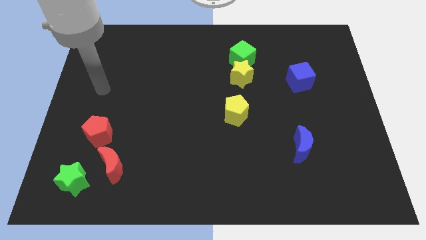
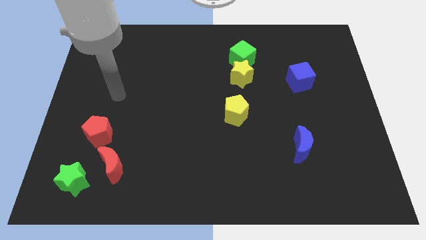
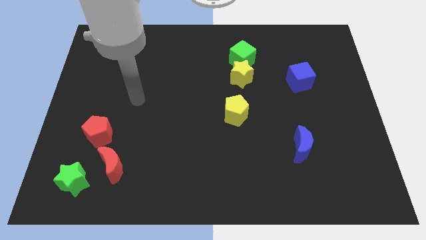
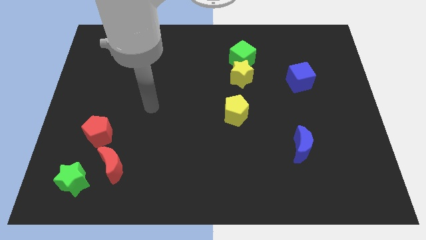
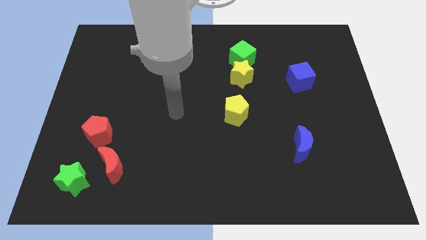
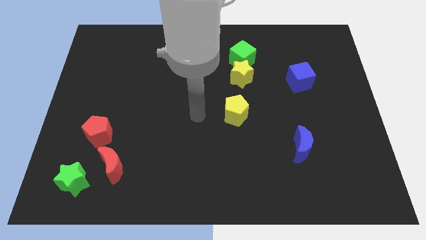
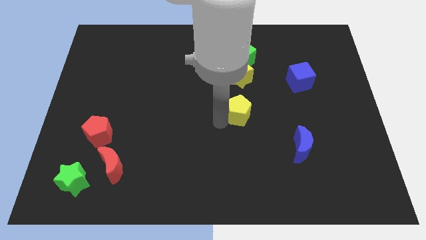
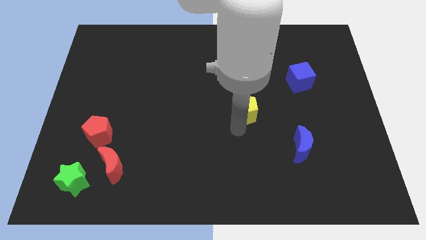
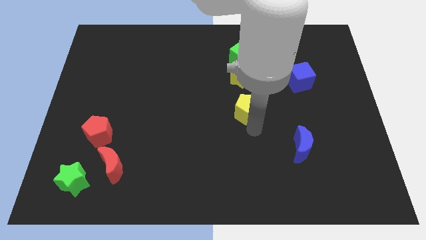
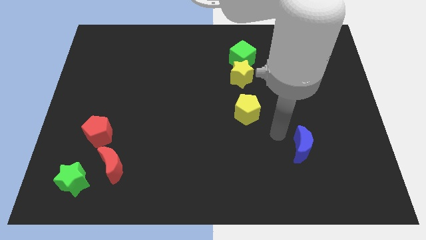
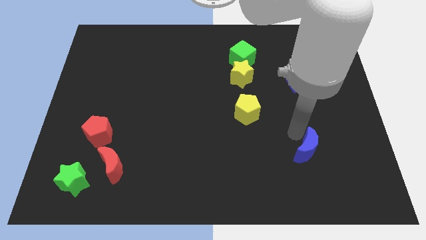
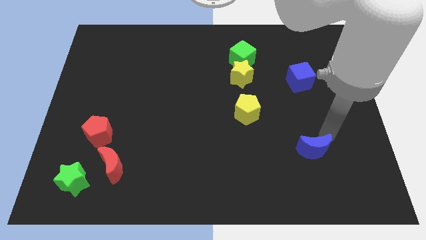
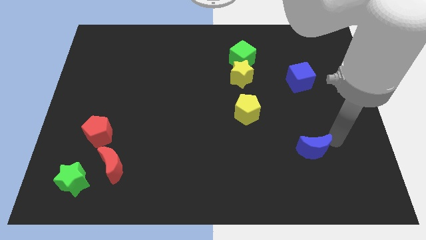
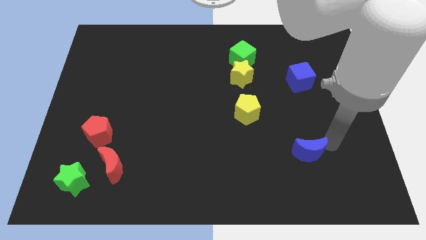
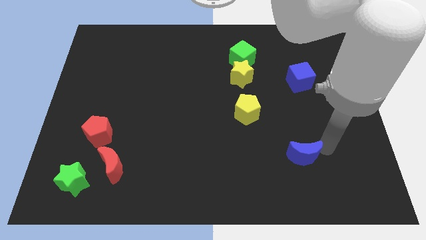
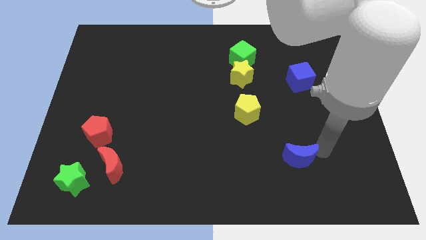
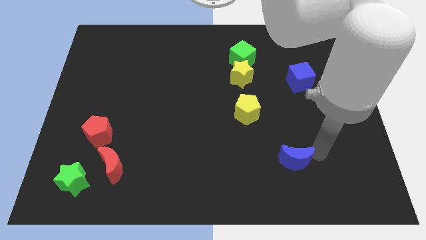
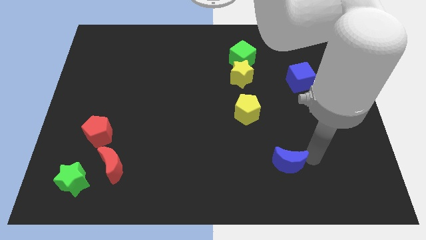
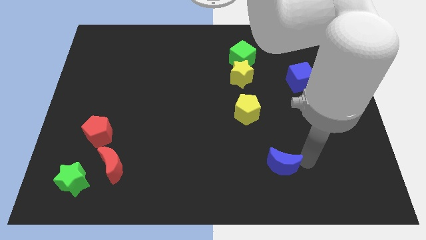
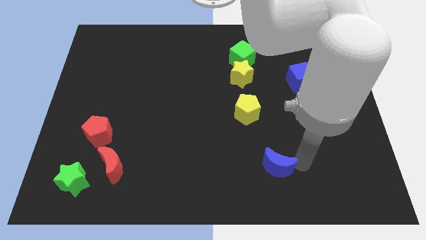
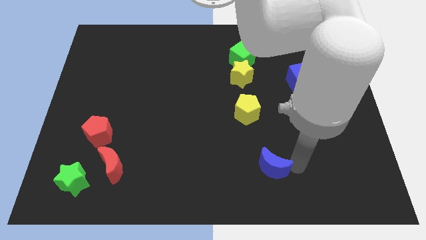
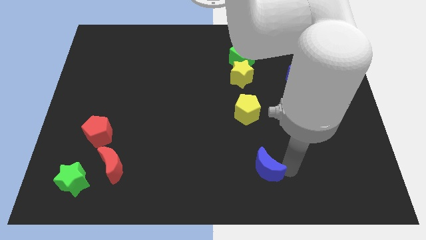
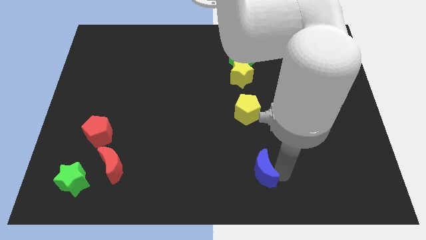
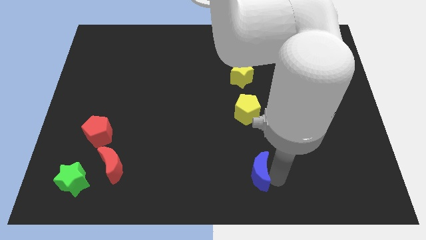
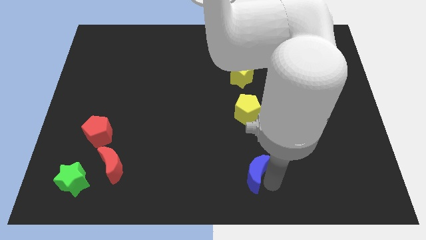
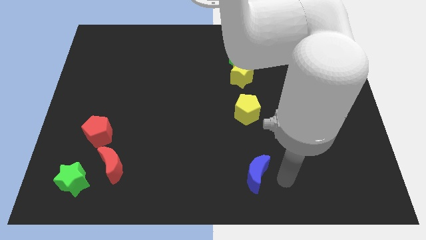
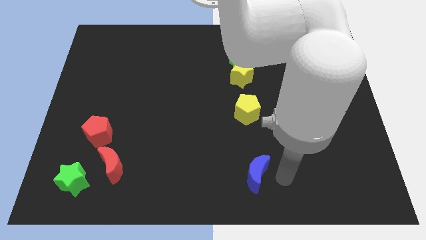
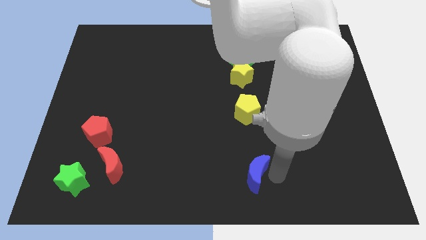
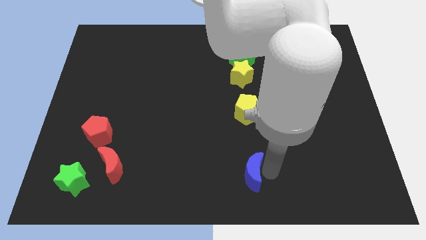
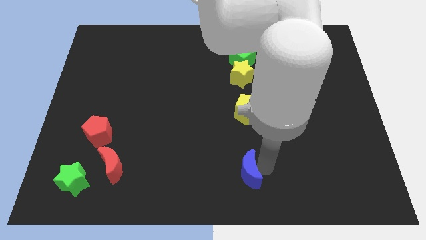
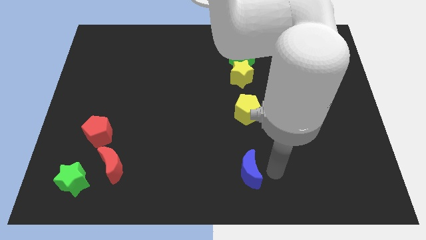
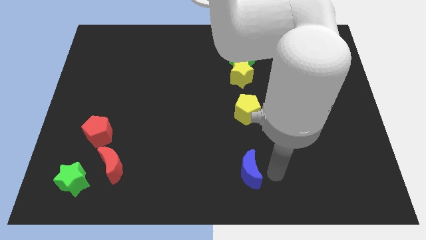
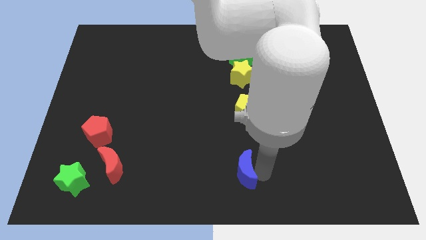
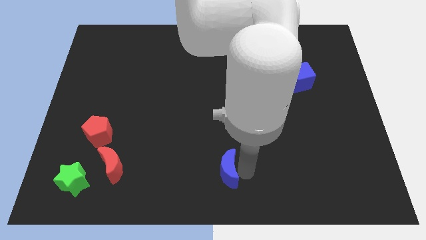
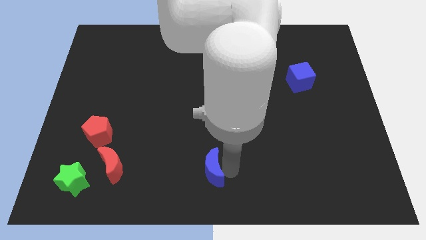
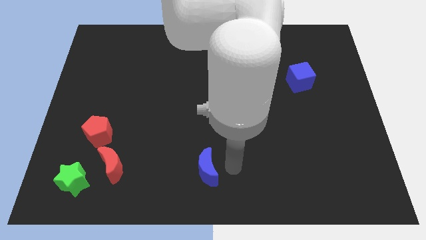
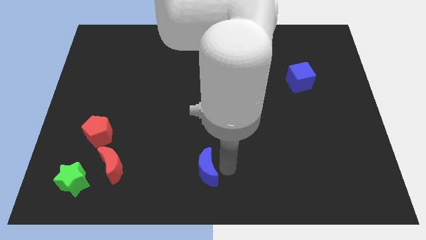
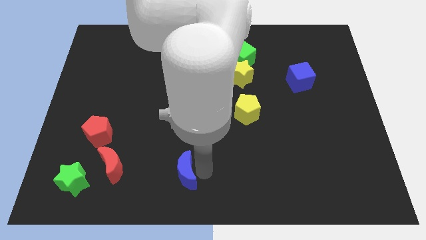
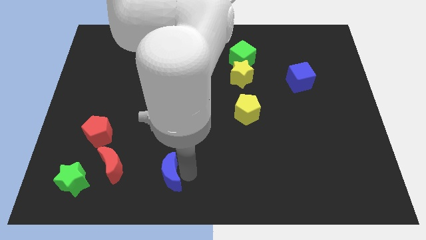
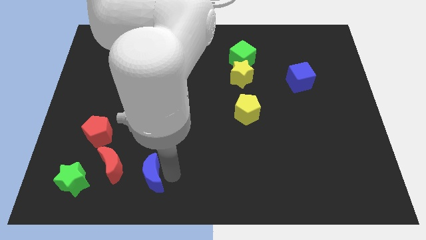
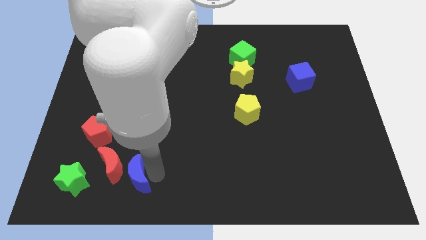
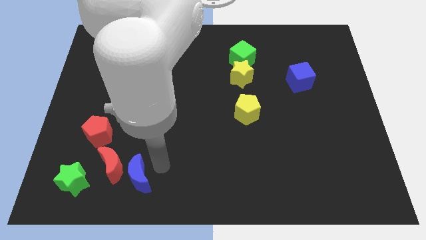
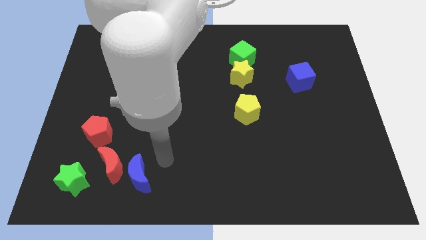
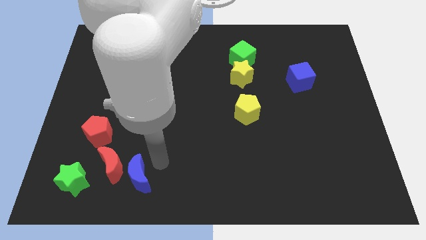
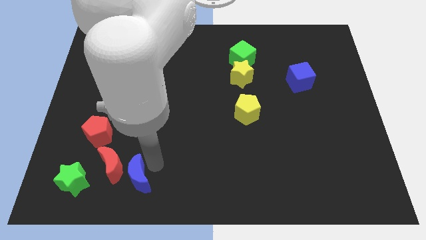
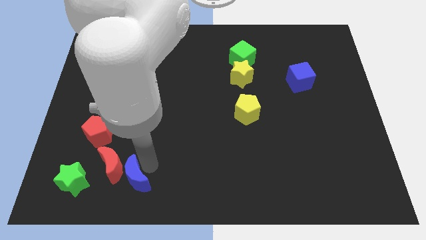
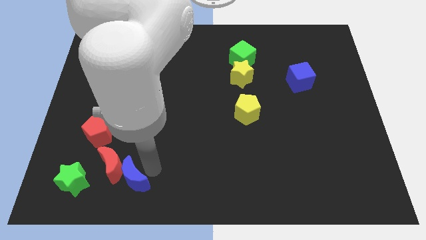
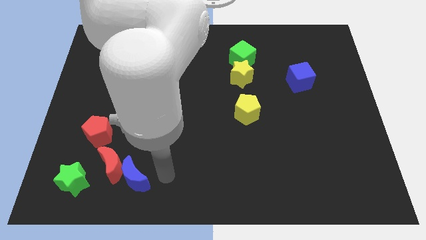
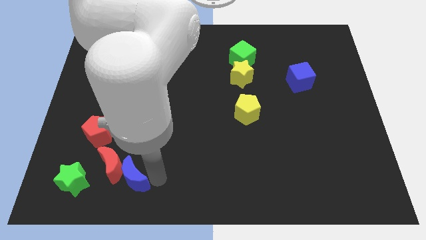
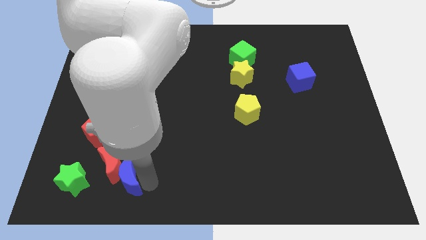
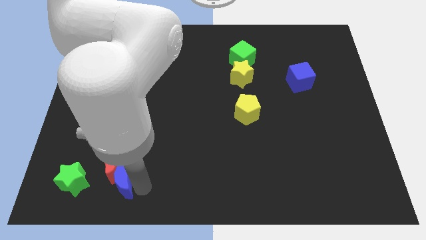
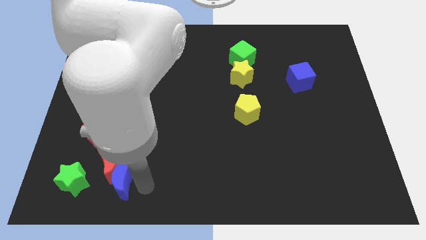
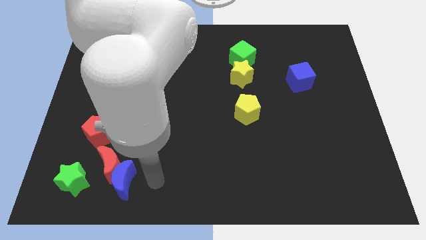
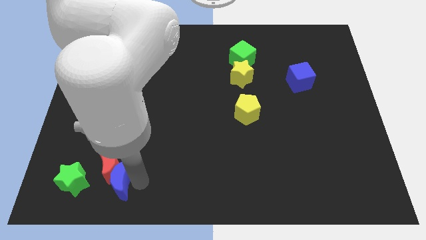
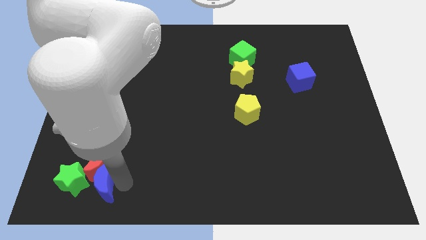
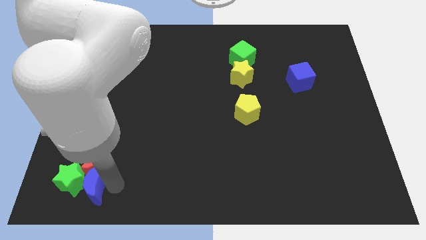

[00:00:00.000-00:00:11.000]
move the blue moon to the green star

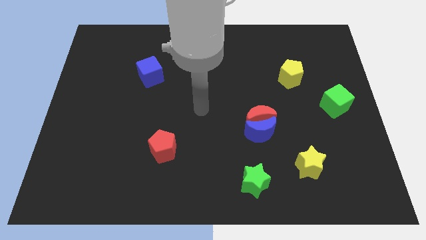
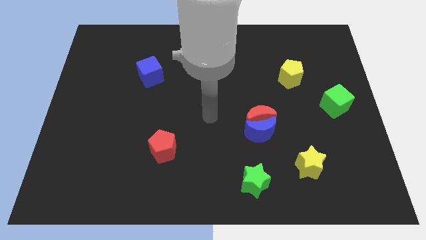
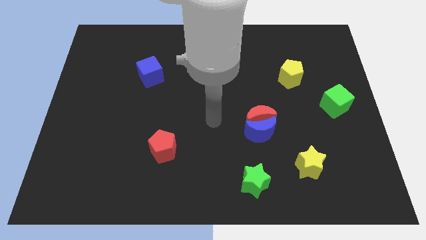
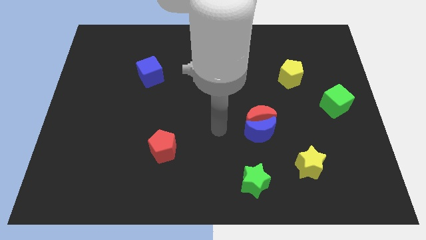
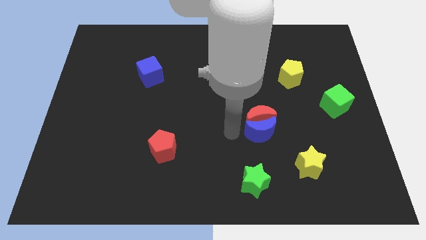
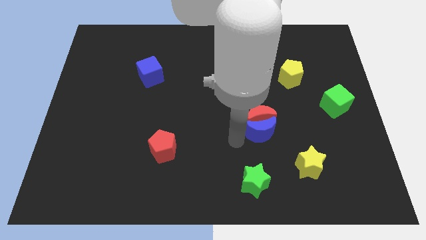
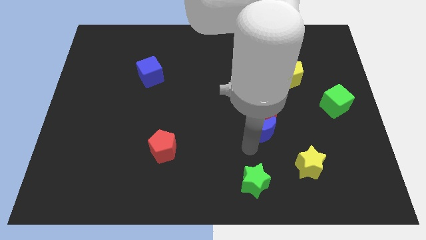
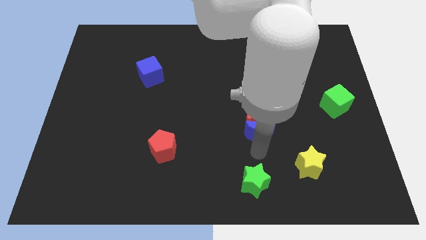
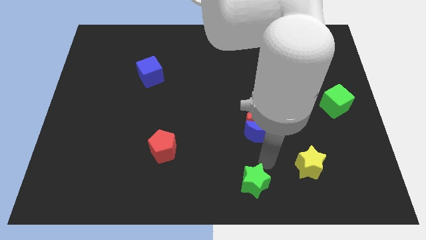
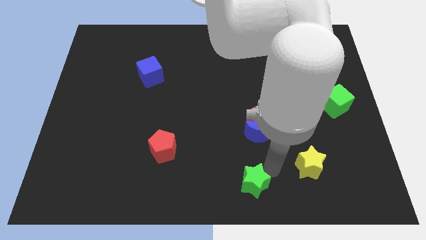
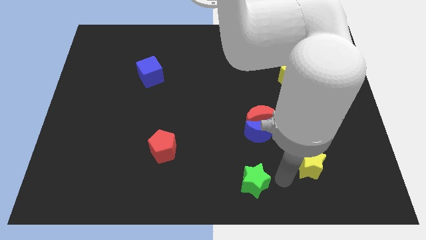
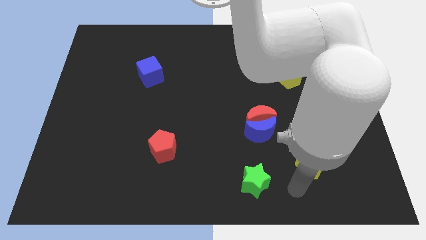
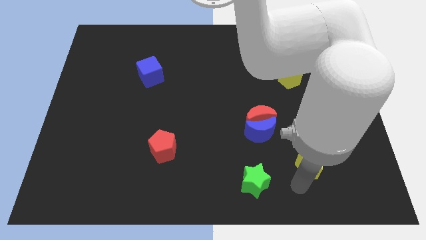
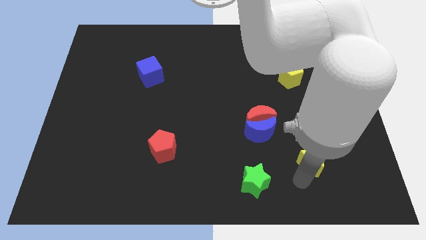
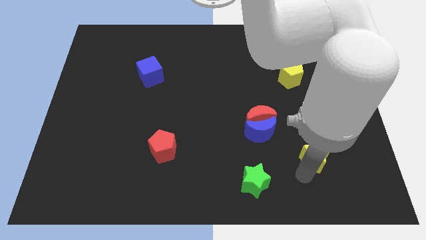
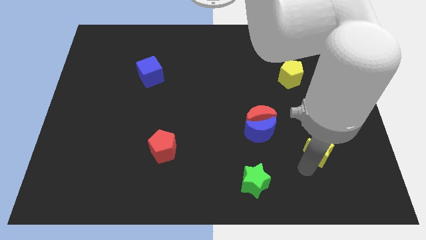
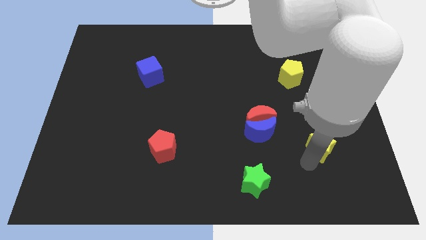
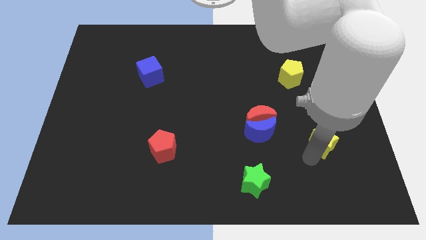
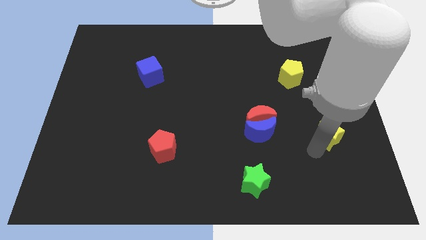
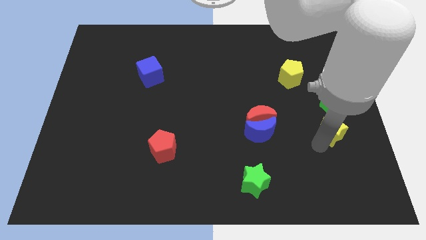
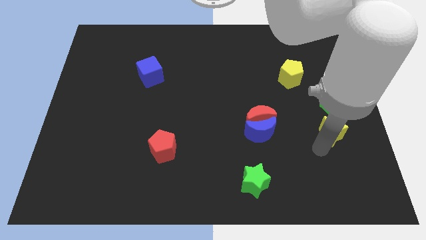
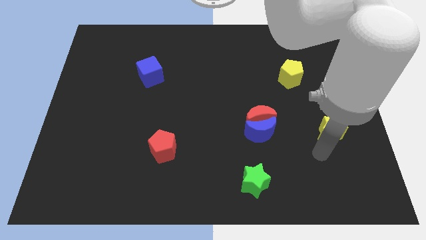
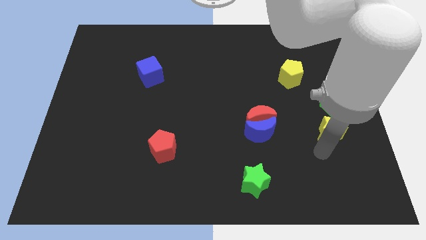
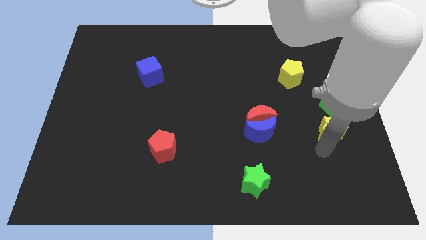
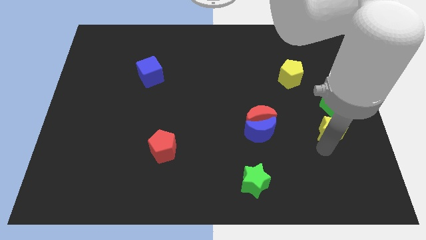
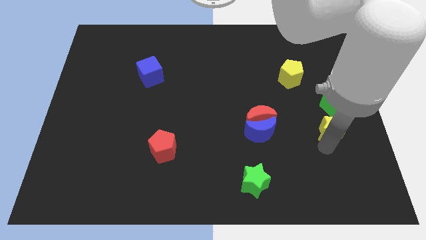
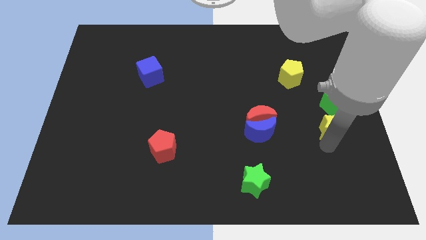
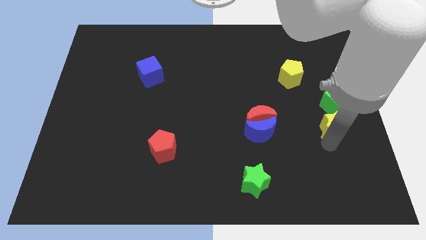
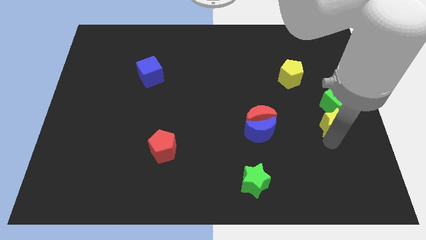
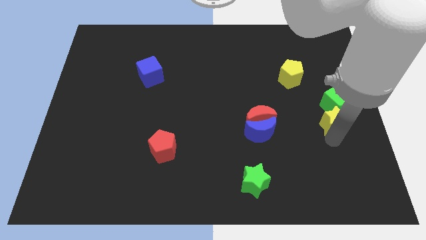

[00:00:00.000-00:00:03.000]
push the yellow star to the green cube
